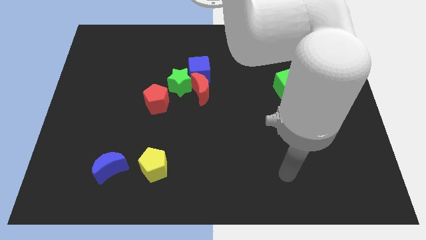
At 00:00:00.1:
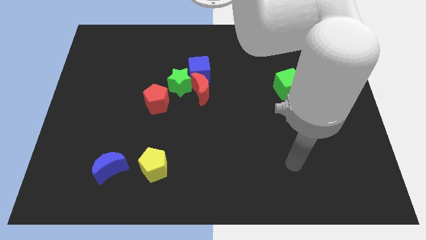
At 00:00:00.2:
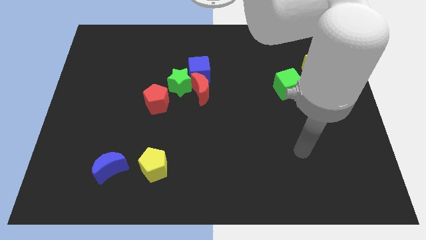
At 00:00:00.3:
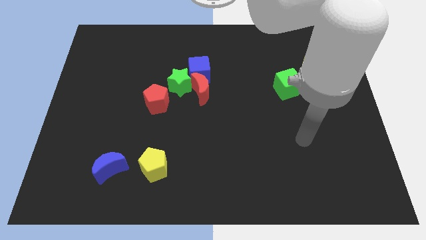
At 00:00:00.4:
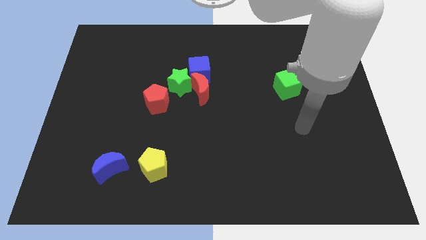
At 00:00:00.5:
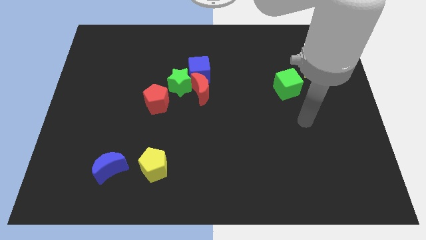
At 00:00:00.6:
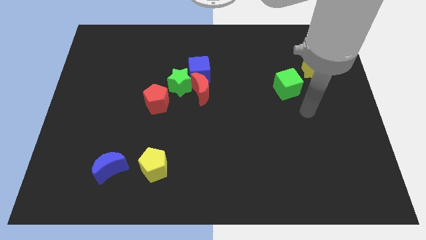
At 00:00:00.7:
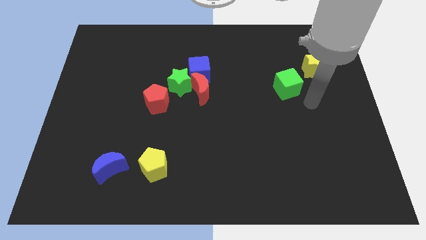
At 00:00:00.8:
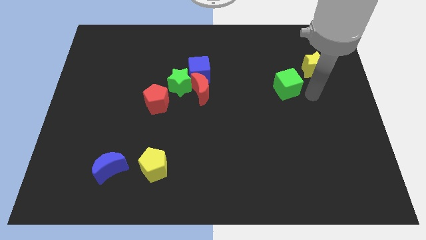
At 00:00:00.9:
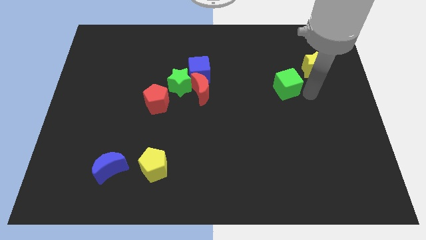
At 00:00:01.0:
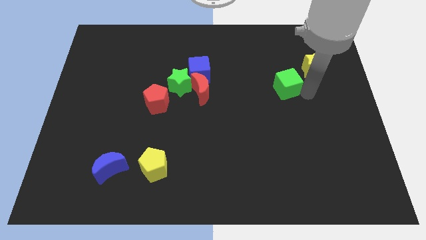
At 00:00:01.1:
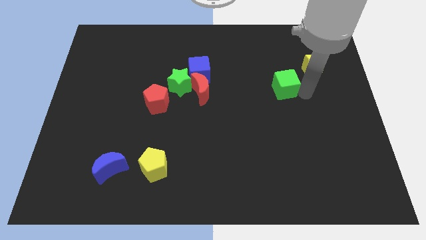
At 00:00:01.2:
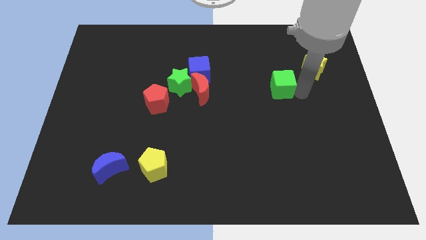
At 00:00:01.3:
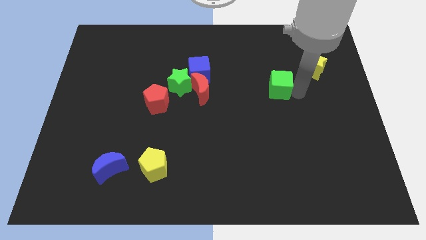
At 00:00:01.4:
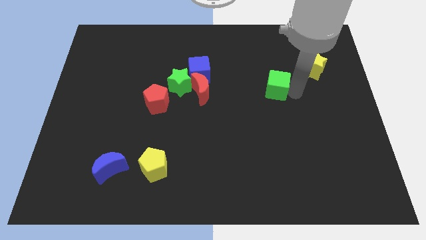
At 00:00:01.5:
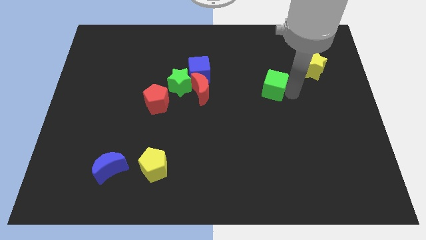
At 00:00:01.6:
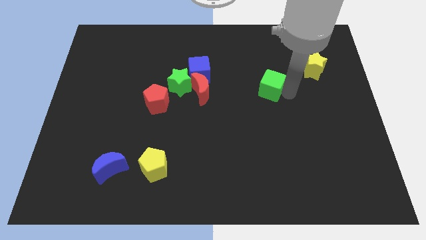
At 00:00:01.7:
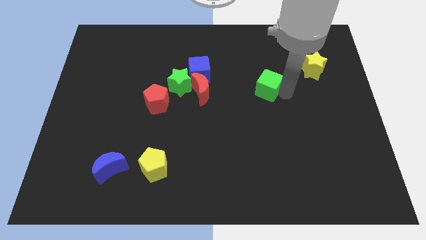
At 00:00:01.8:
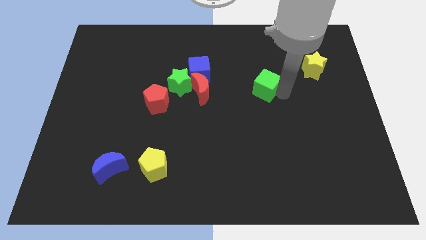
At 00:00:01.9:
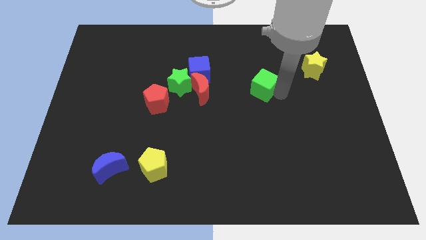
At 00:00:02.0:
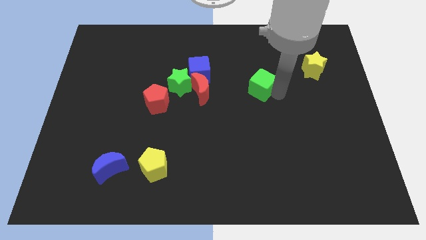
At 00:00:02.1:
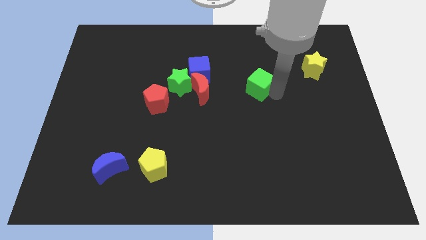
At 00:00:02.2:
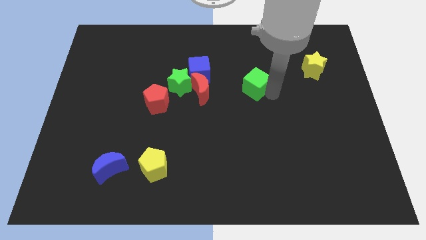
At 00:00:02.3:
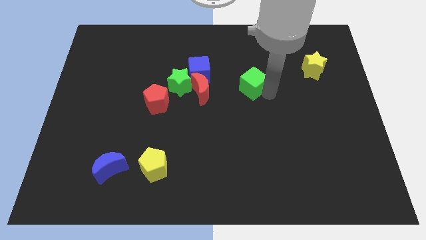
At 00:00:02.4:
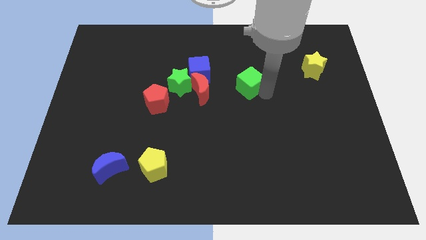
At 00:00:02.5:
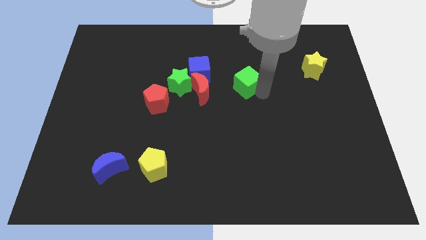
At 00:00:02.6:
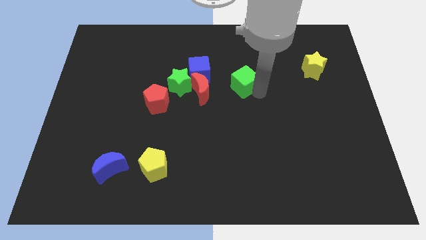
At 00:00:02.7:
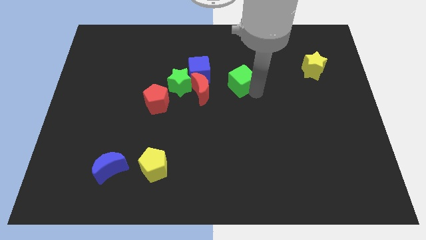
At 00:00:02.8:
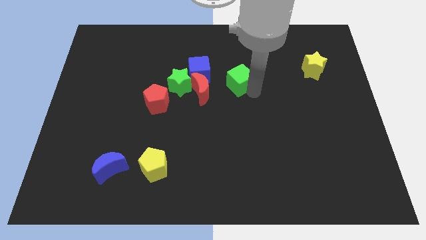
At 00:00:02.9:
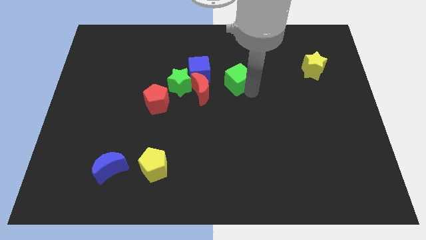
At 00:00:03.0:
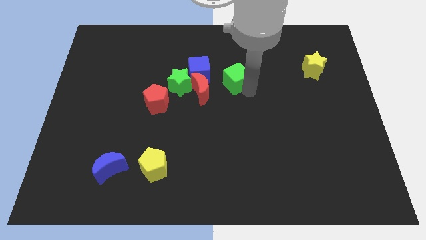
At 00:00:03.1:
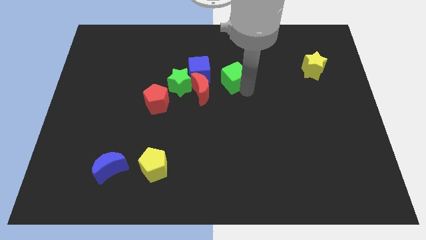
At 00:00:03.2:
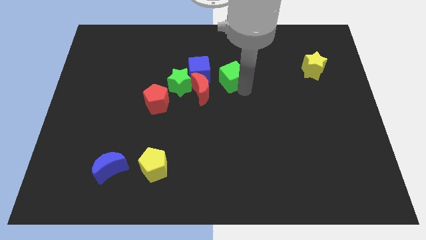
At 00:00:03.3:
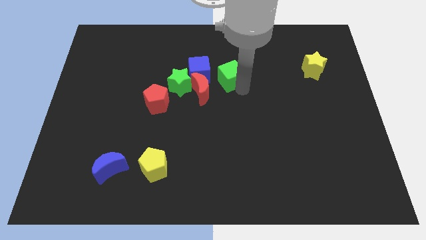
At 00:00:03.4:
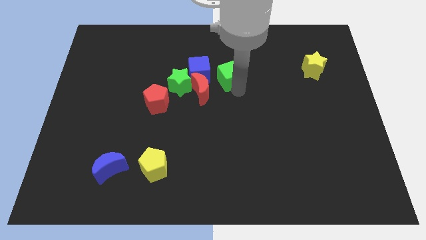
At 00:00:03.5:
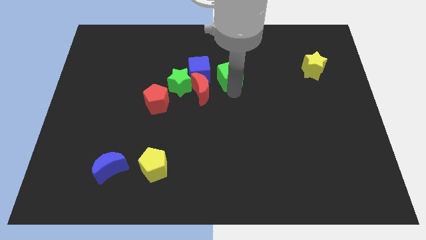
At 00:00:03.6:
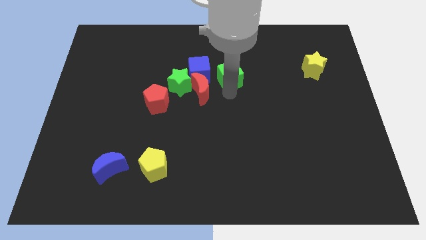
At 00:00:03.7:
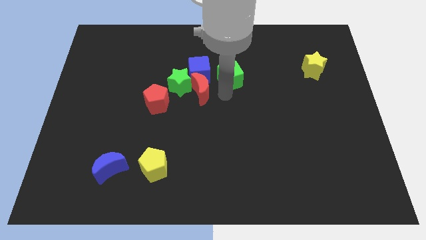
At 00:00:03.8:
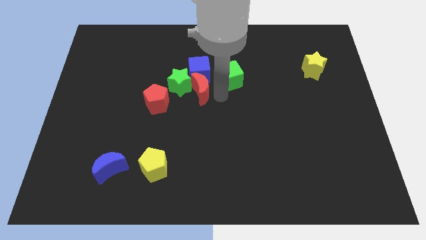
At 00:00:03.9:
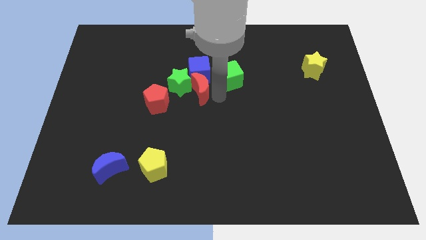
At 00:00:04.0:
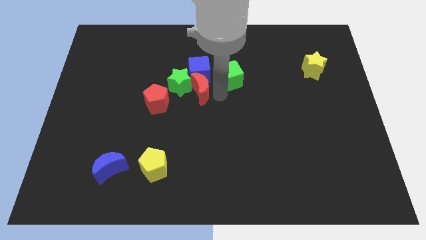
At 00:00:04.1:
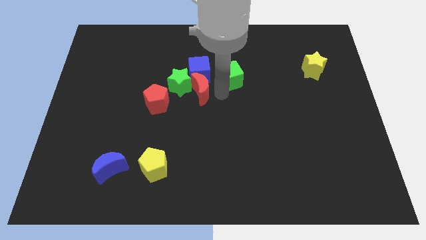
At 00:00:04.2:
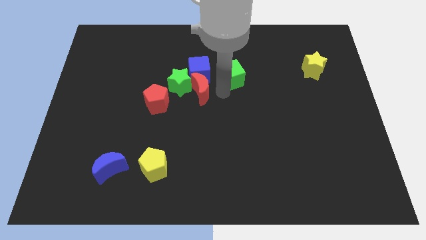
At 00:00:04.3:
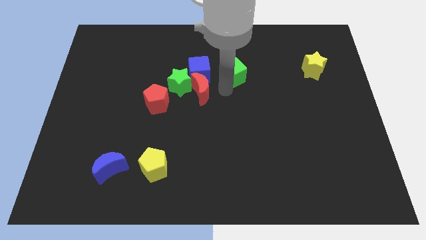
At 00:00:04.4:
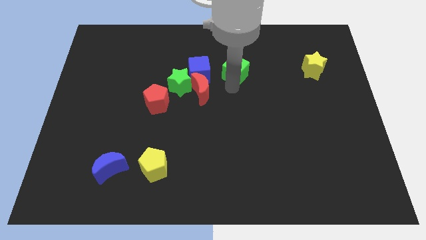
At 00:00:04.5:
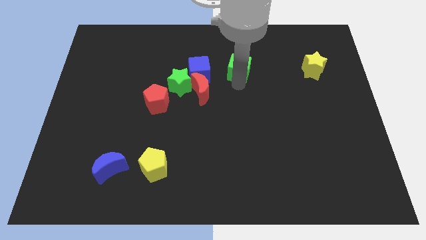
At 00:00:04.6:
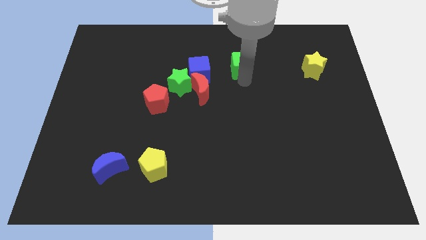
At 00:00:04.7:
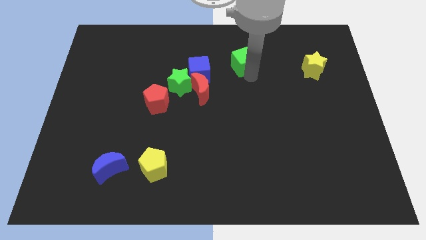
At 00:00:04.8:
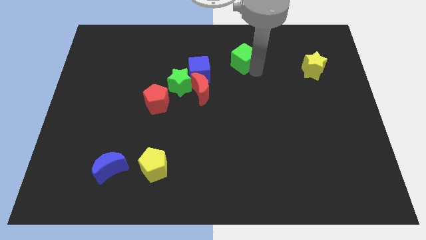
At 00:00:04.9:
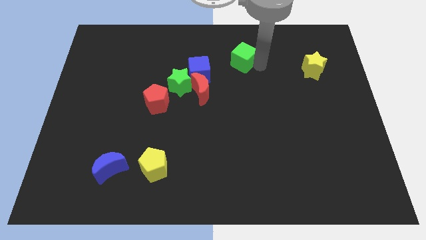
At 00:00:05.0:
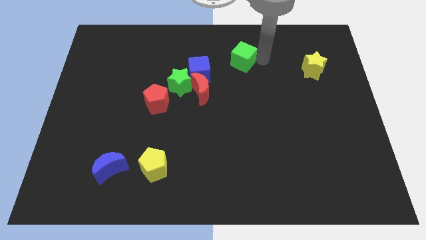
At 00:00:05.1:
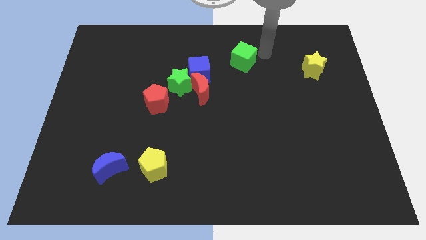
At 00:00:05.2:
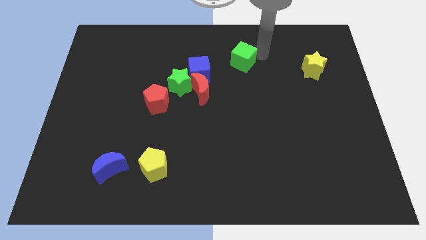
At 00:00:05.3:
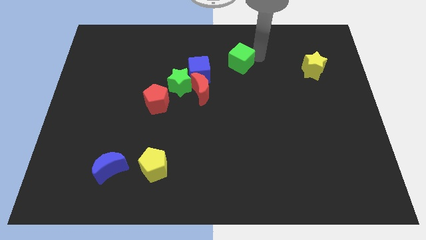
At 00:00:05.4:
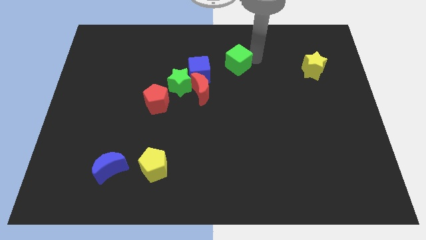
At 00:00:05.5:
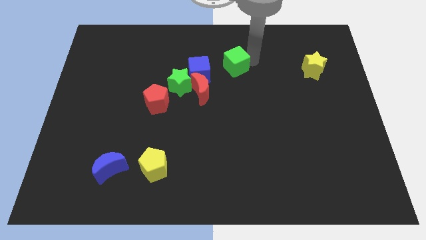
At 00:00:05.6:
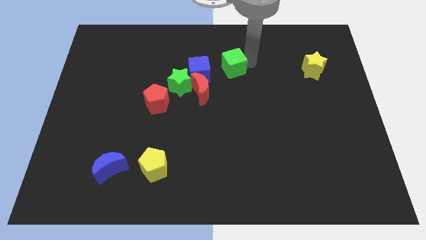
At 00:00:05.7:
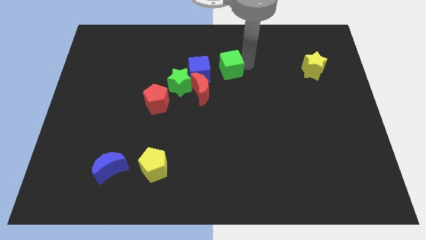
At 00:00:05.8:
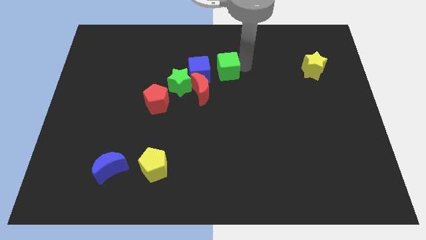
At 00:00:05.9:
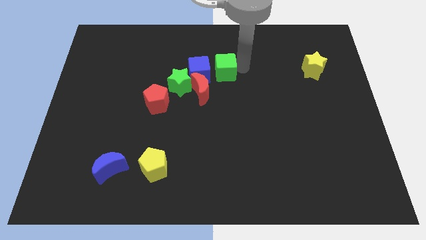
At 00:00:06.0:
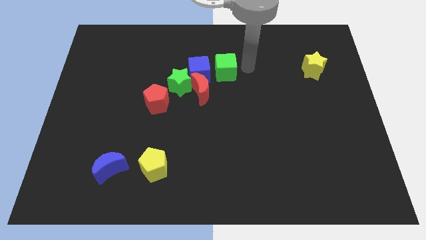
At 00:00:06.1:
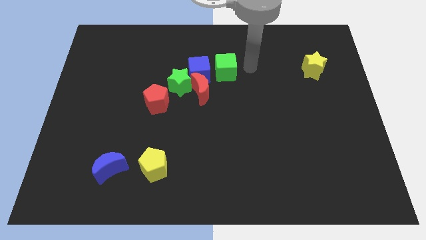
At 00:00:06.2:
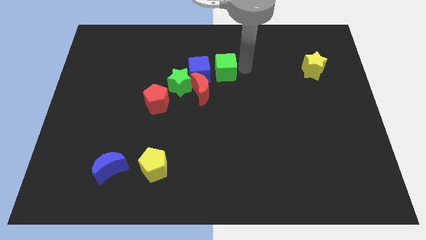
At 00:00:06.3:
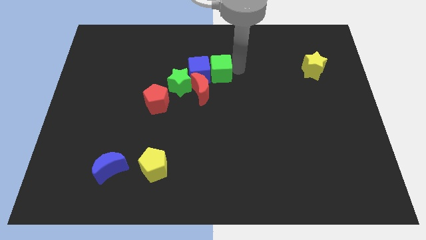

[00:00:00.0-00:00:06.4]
push the green cube next to the blue cube

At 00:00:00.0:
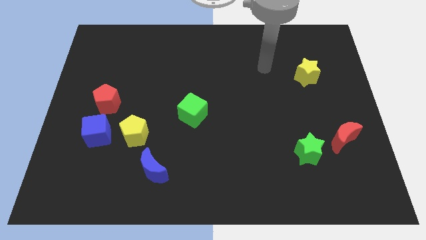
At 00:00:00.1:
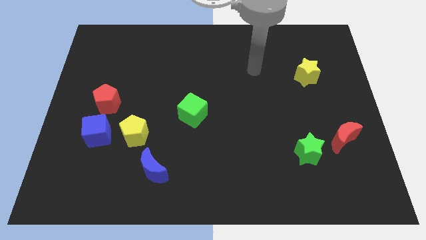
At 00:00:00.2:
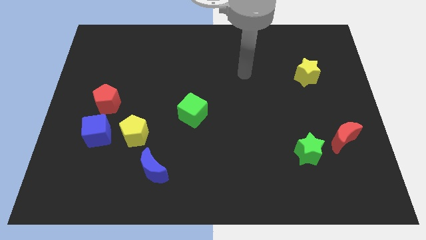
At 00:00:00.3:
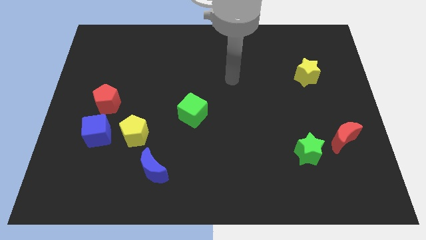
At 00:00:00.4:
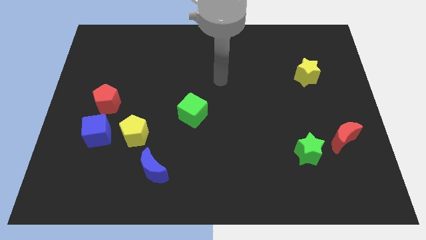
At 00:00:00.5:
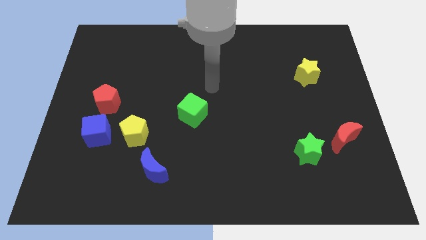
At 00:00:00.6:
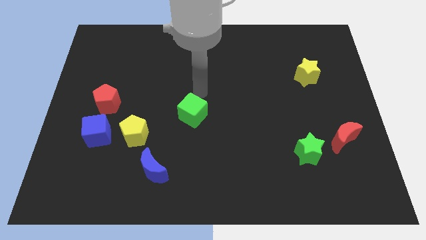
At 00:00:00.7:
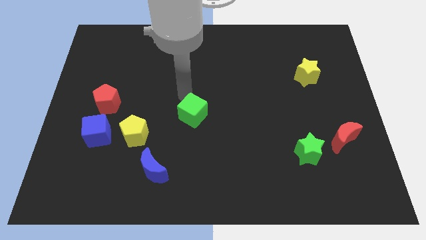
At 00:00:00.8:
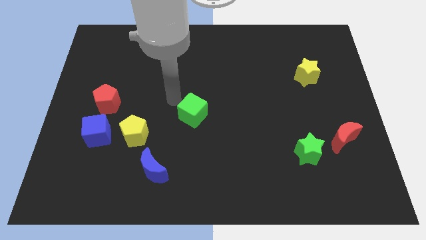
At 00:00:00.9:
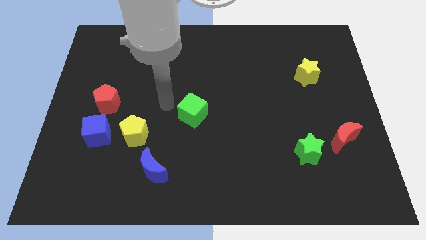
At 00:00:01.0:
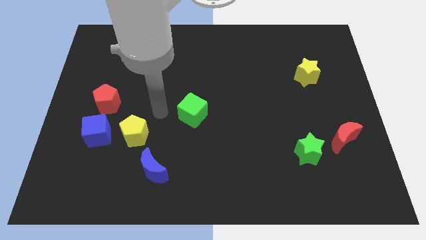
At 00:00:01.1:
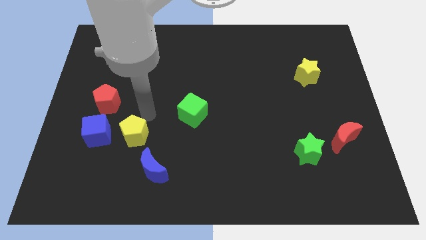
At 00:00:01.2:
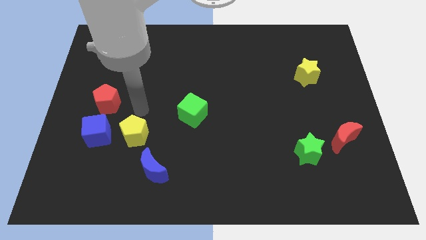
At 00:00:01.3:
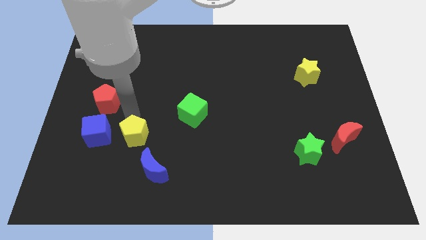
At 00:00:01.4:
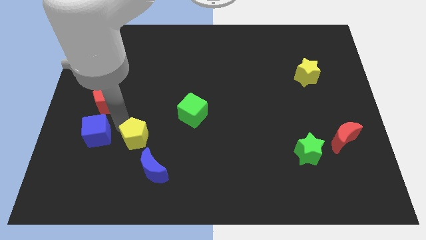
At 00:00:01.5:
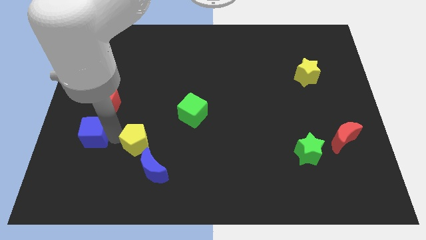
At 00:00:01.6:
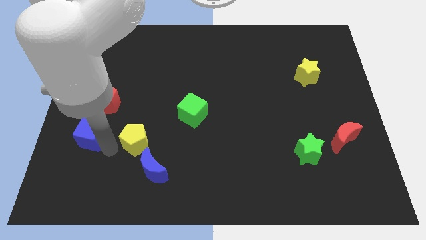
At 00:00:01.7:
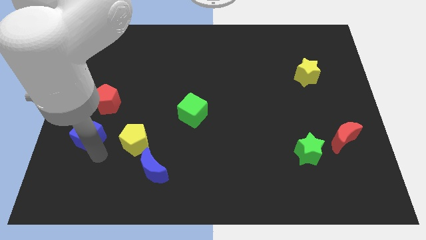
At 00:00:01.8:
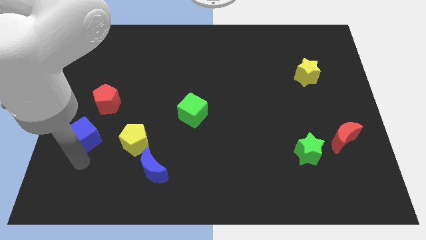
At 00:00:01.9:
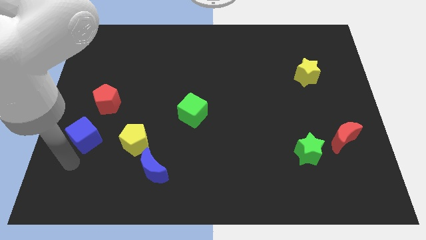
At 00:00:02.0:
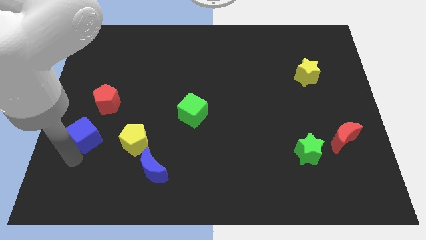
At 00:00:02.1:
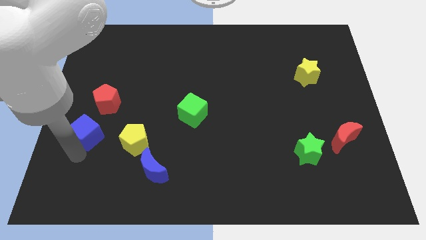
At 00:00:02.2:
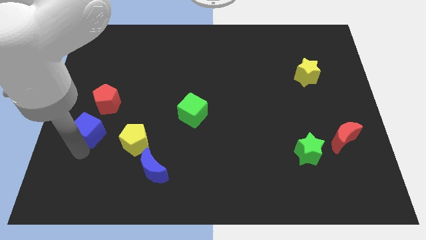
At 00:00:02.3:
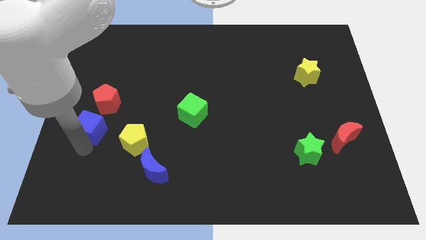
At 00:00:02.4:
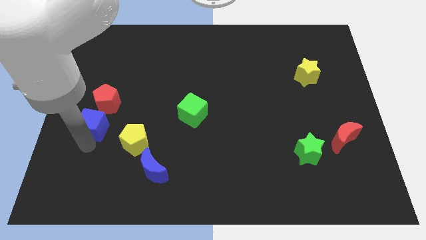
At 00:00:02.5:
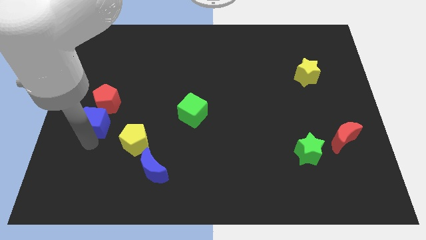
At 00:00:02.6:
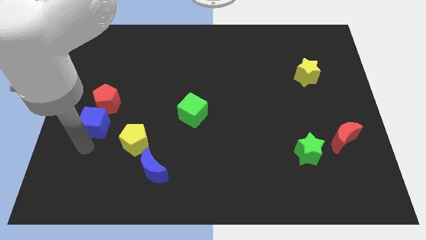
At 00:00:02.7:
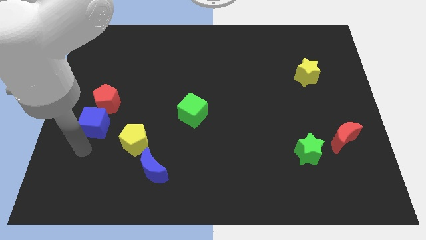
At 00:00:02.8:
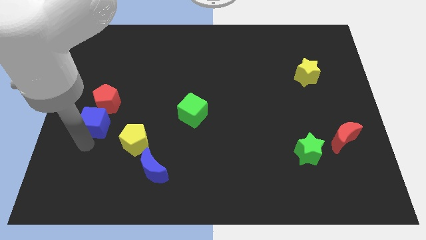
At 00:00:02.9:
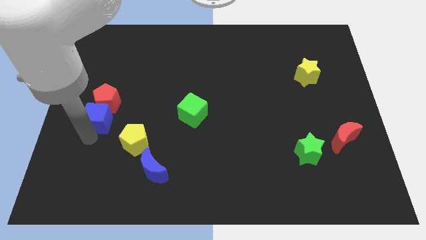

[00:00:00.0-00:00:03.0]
put the blue cube towards the red pentagon
